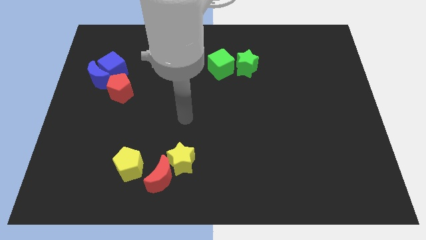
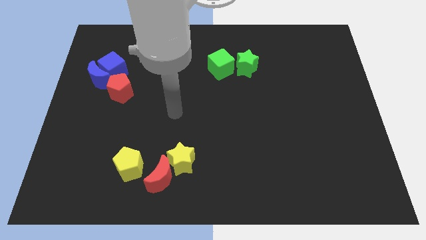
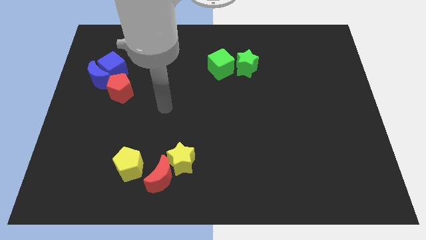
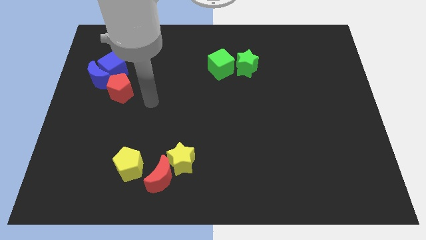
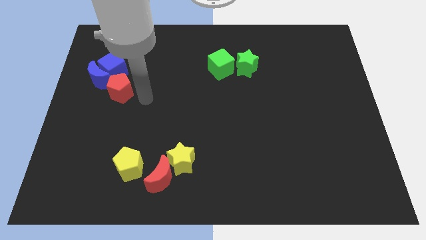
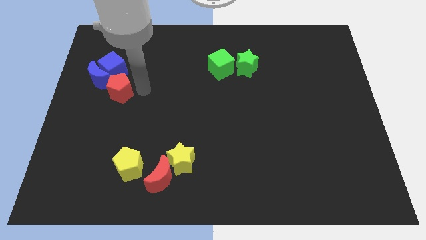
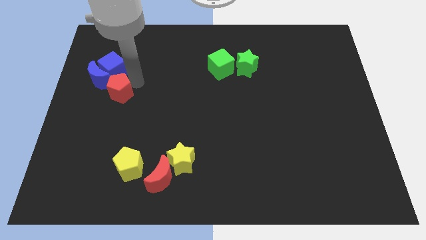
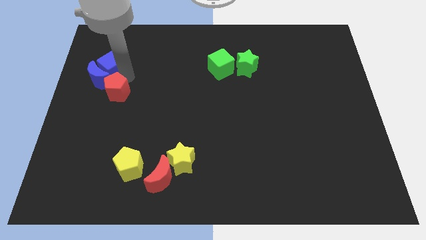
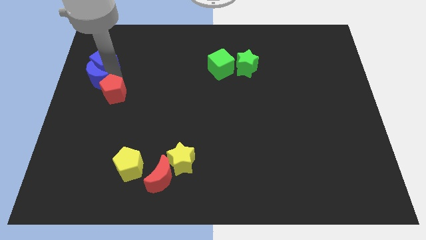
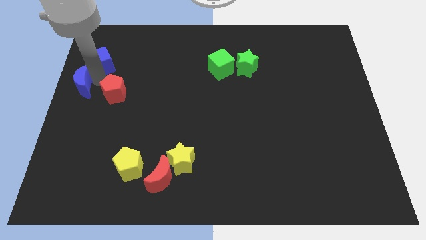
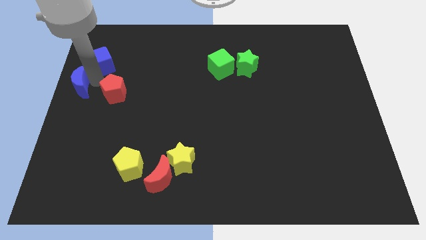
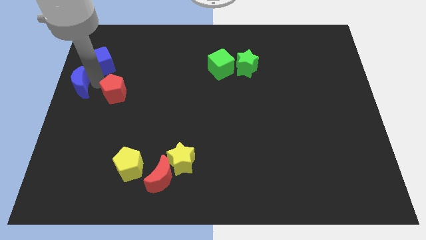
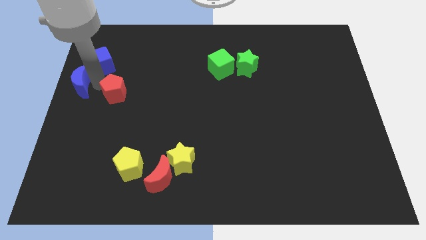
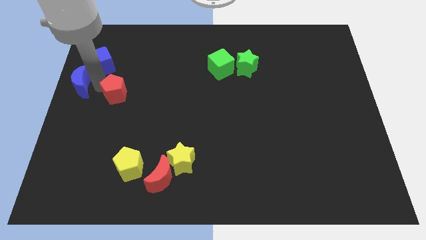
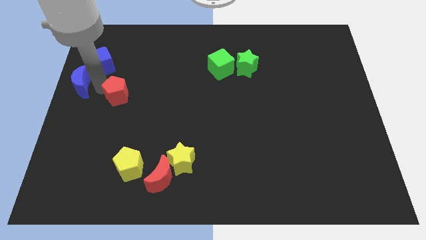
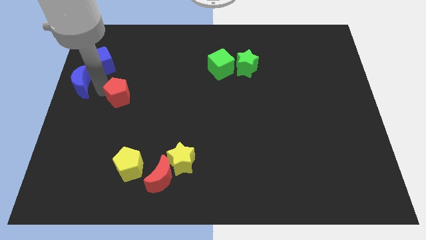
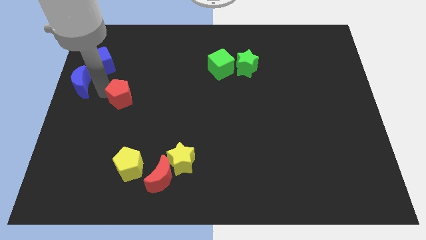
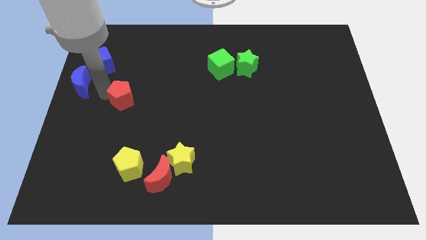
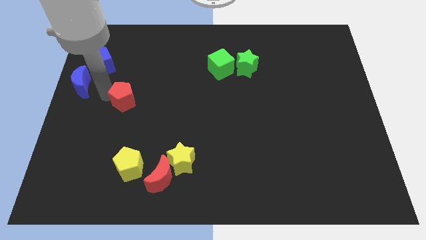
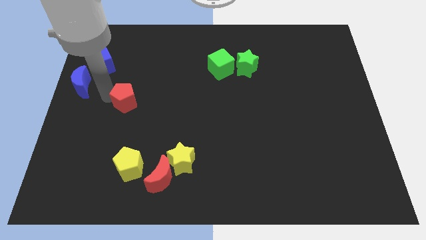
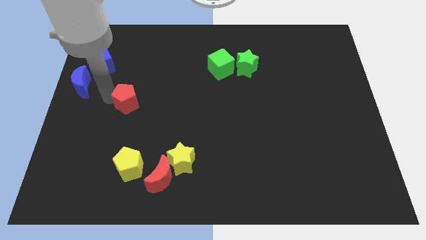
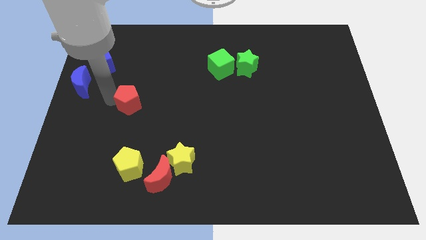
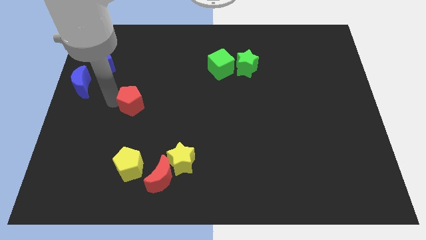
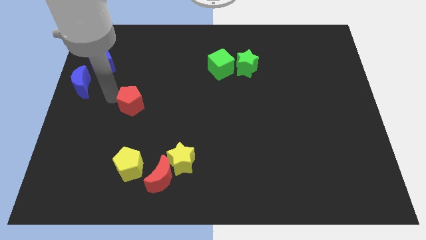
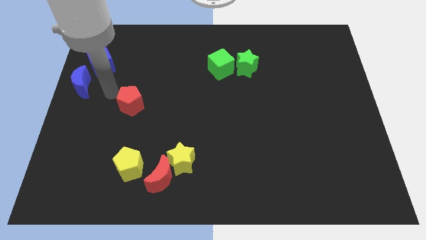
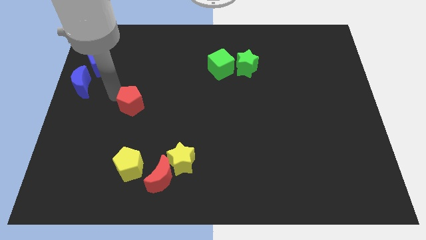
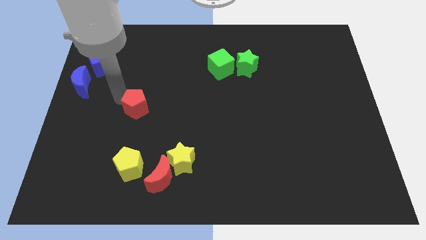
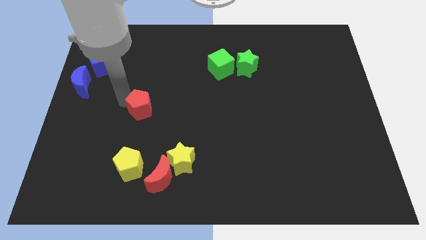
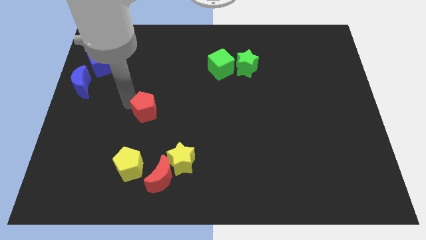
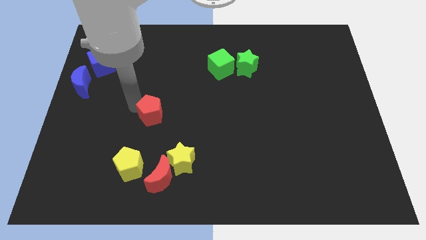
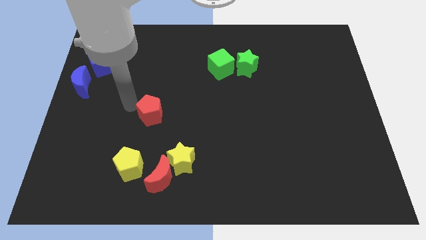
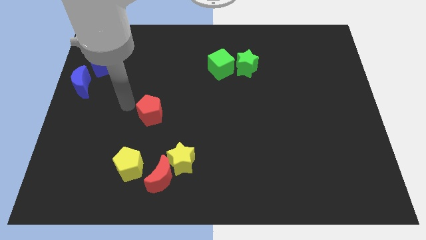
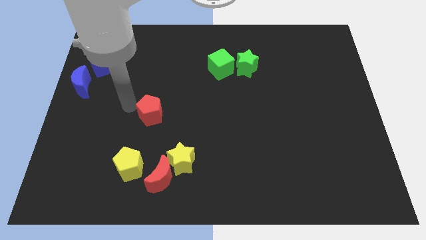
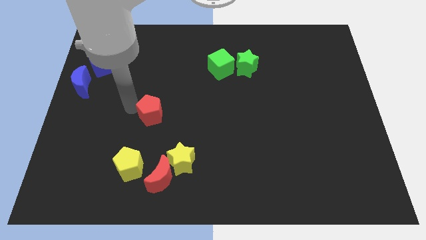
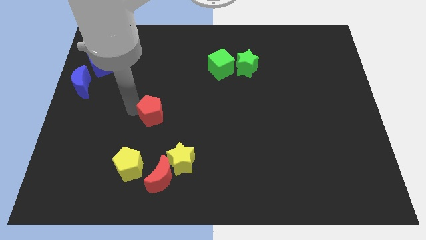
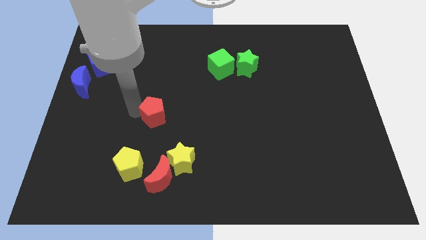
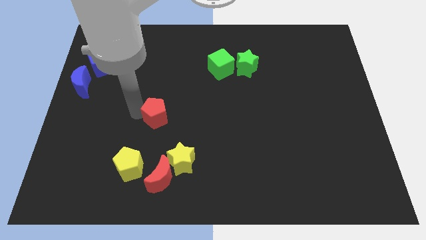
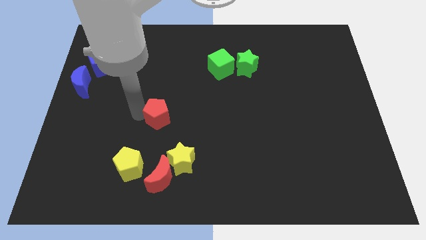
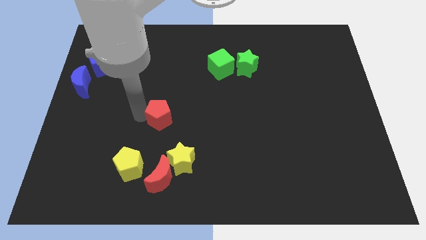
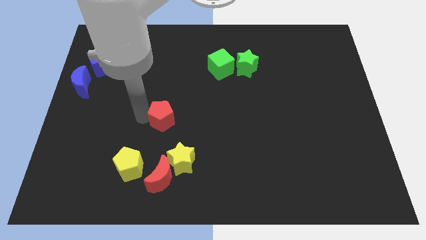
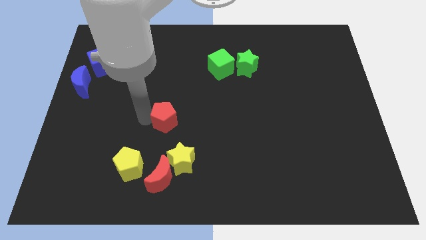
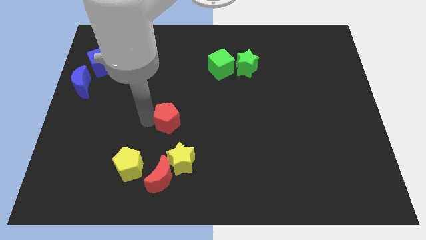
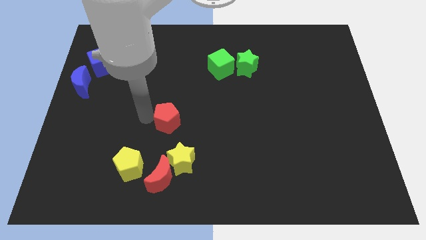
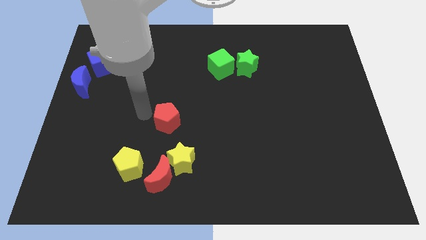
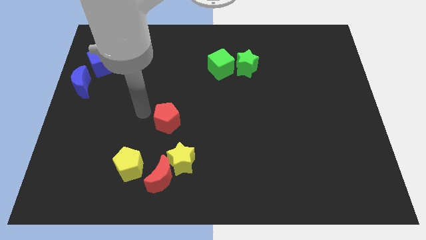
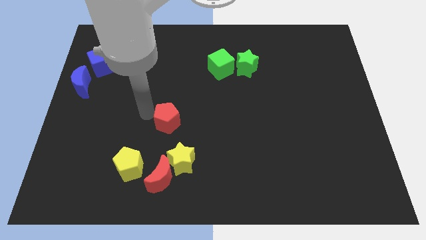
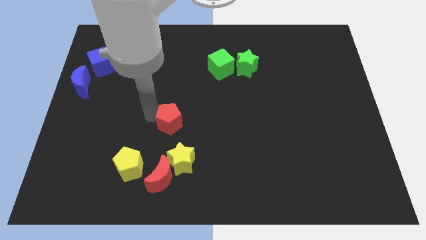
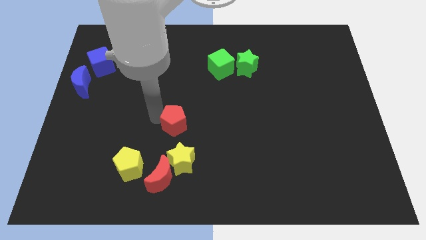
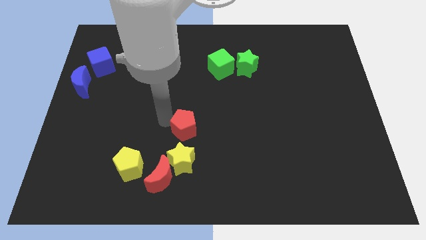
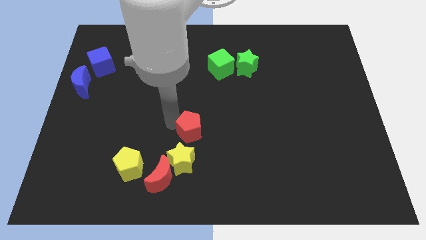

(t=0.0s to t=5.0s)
move the red pentagon diagonally down and right

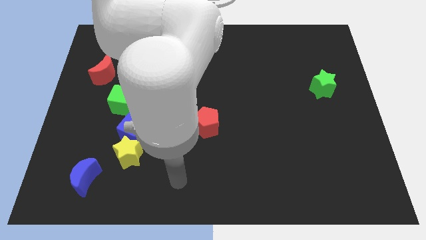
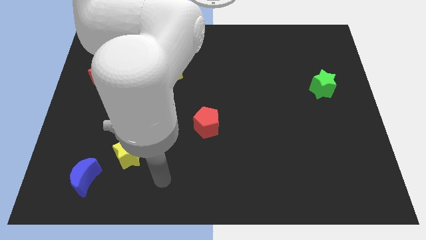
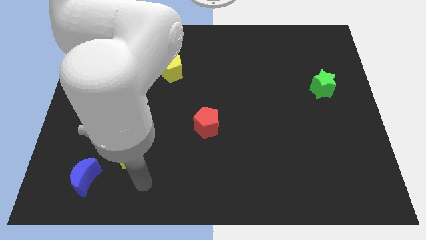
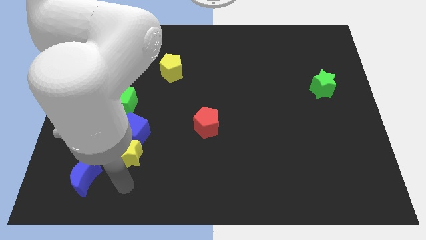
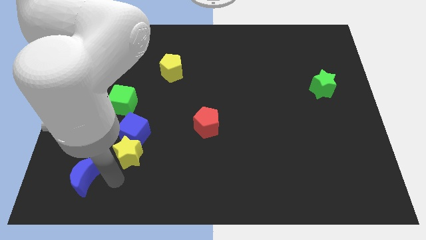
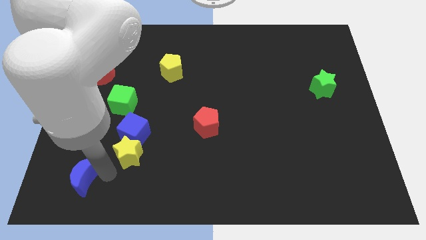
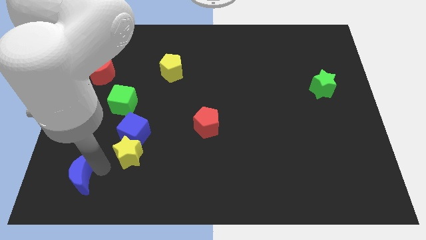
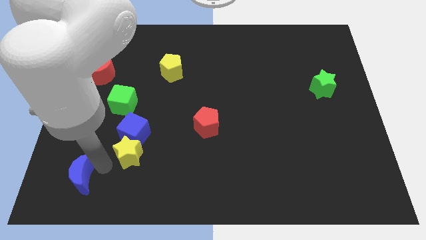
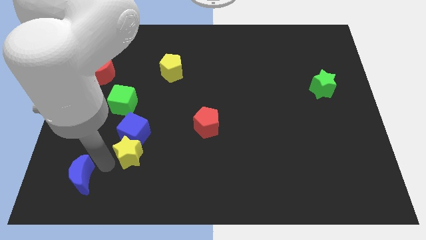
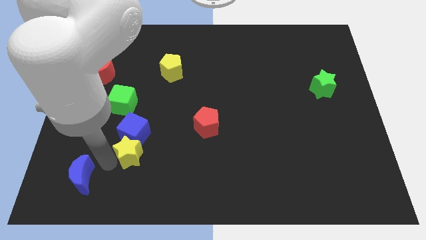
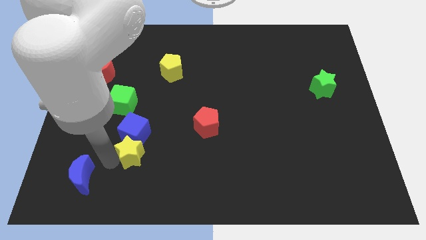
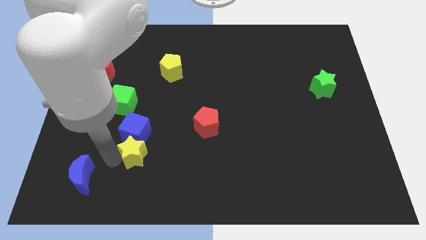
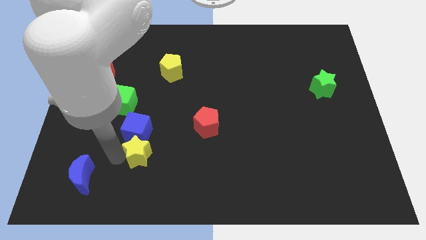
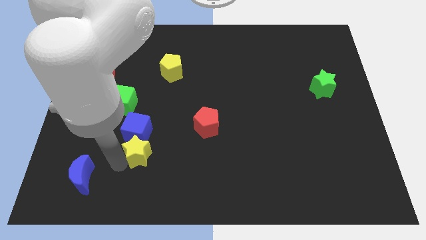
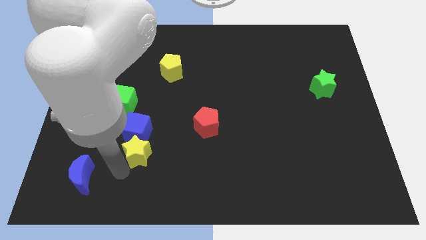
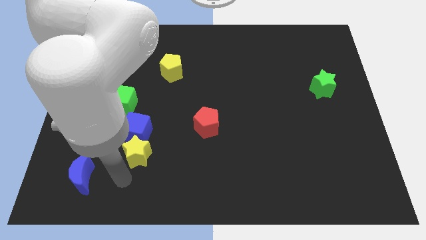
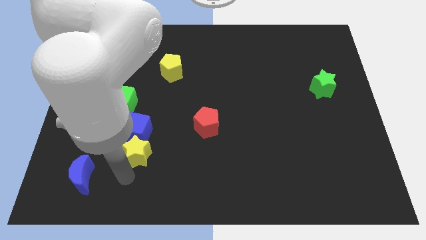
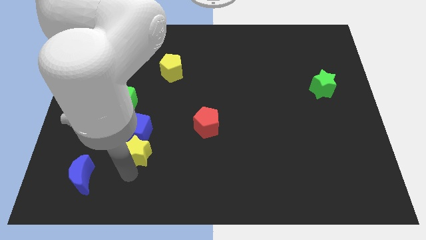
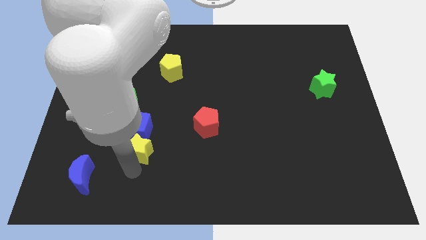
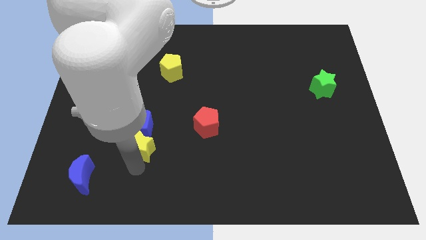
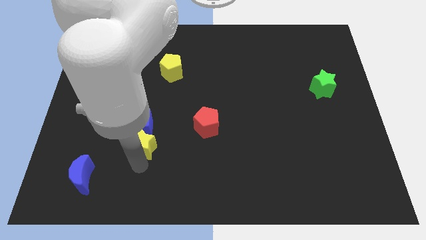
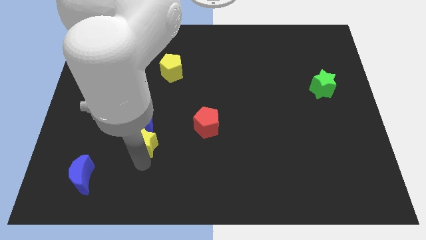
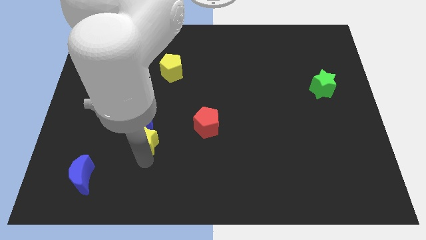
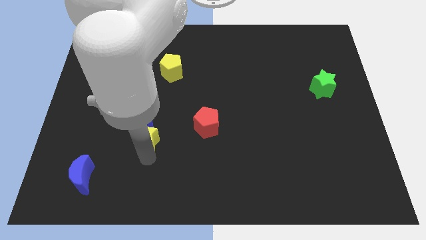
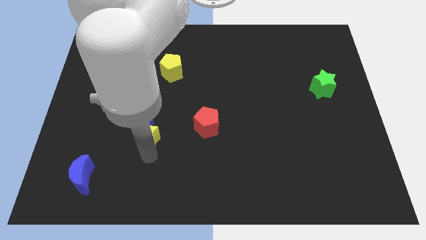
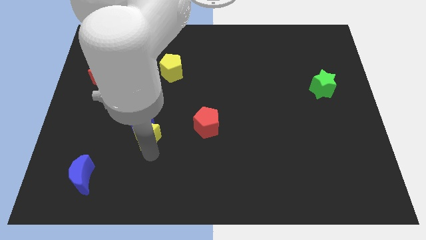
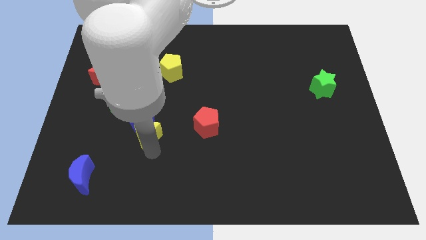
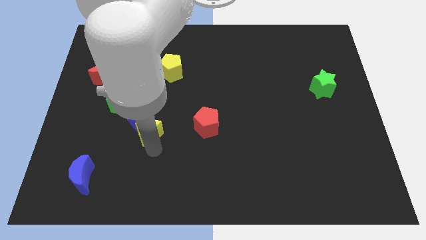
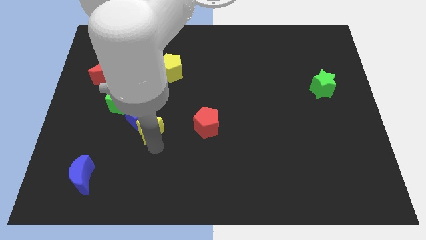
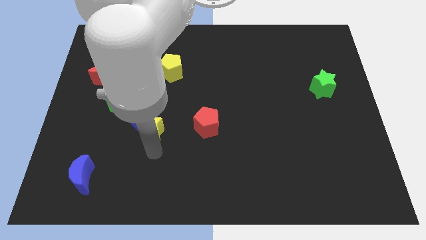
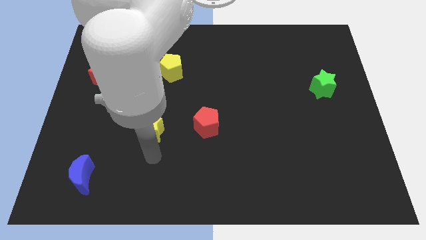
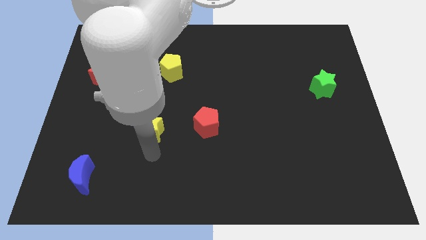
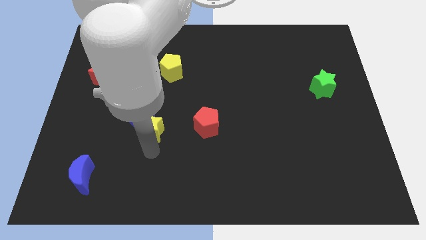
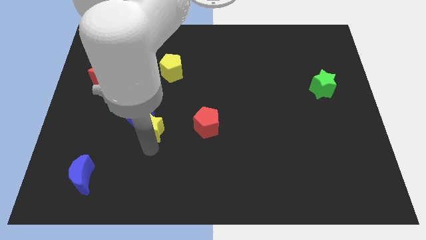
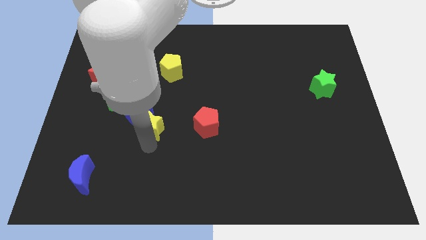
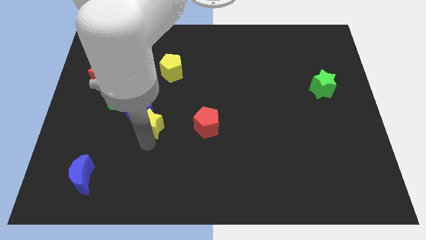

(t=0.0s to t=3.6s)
slide the yellow star upwards a little
